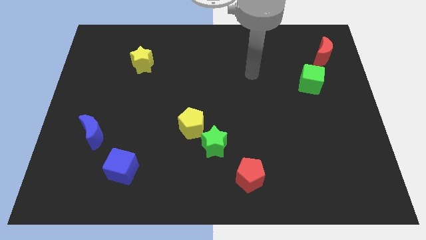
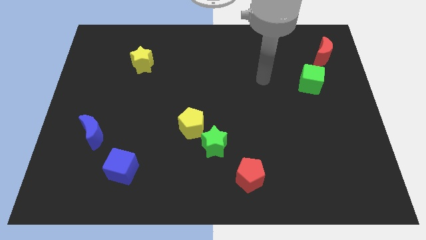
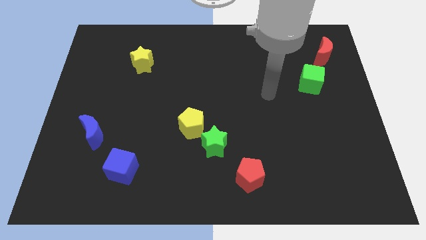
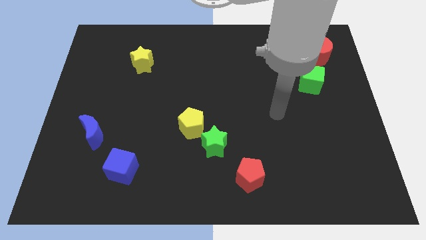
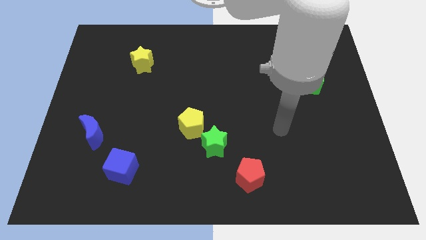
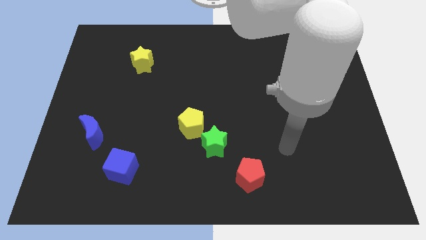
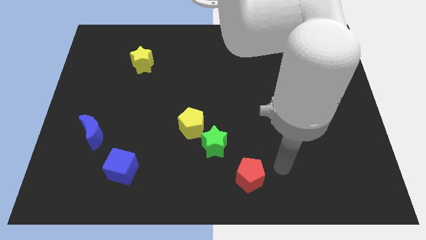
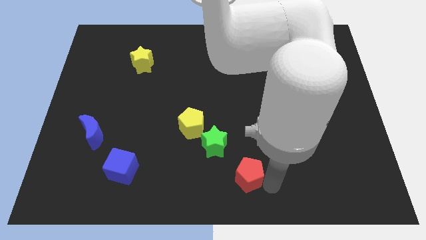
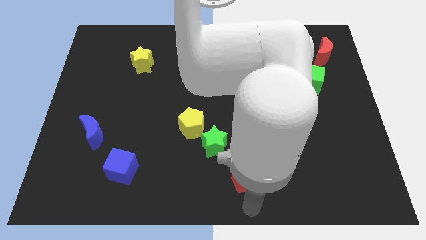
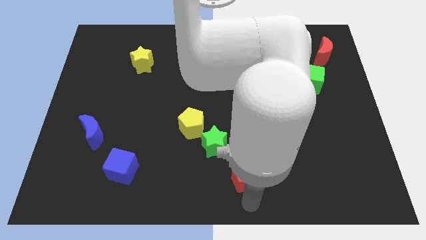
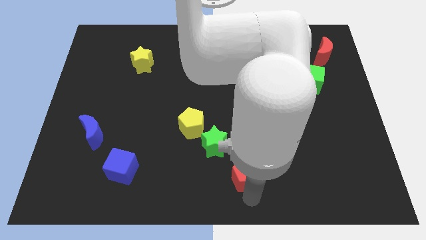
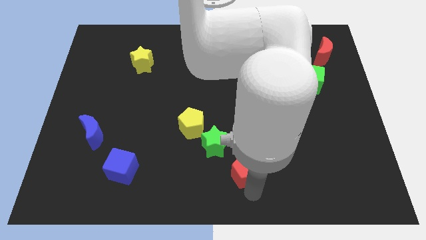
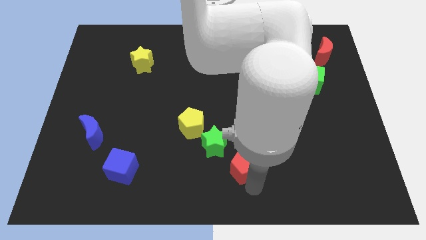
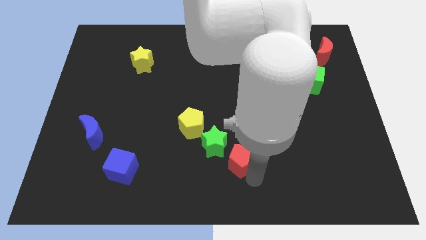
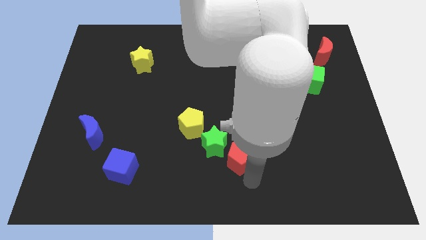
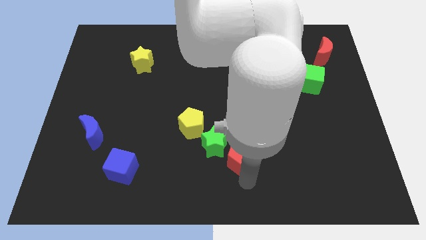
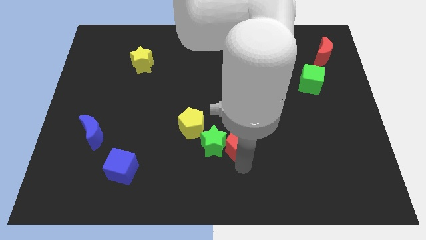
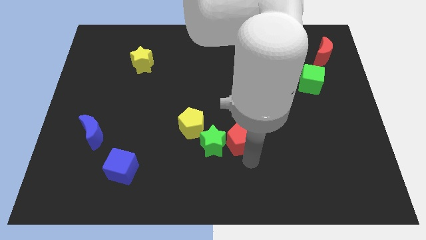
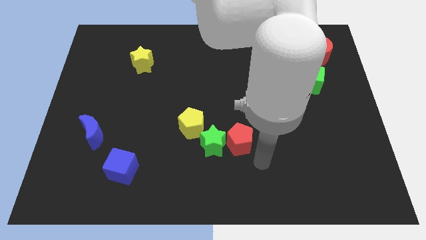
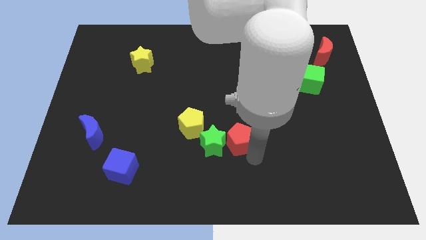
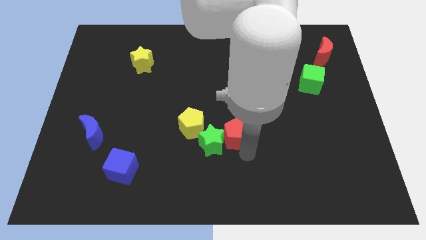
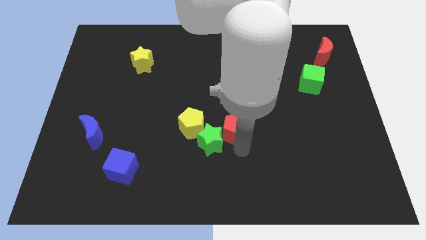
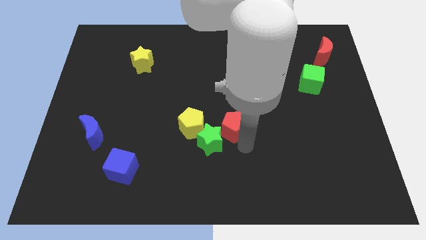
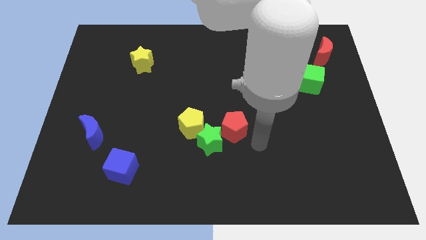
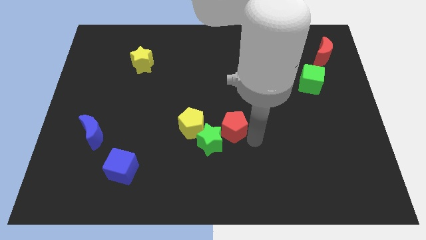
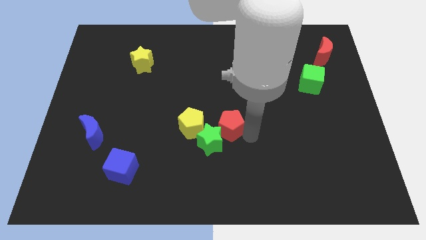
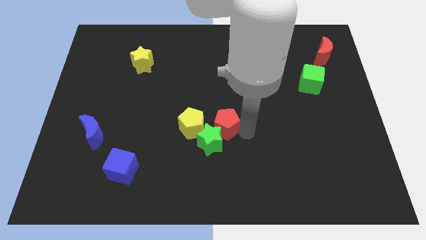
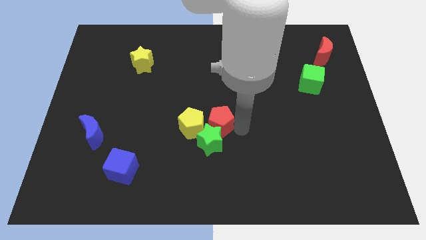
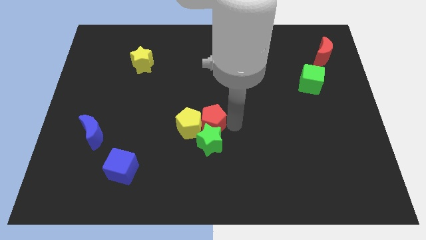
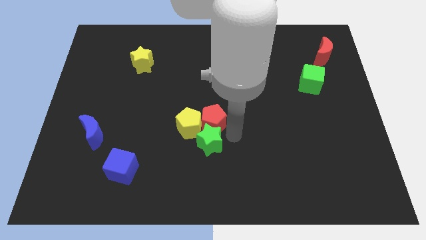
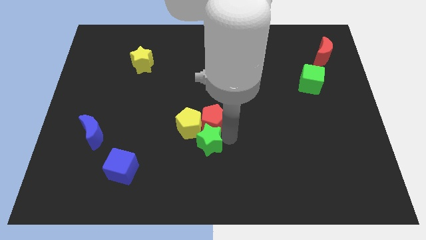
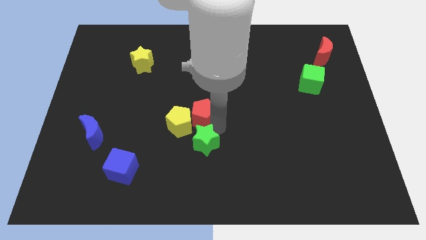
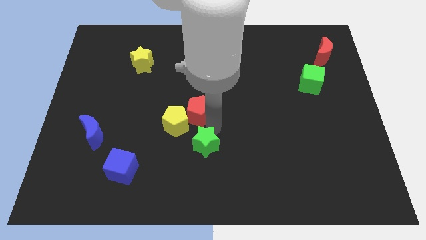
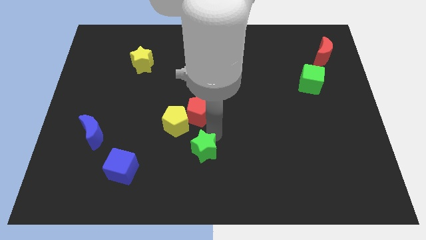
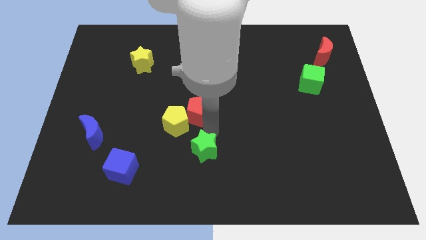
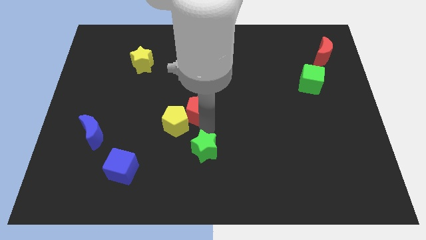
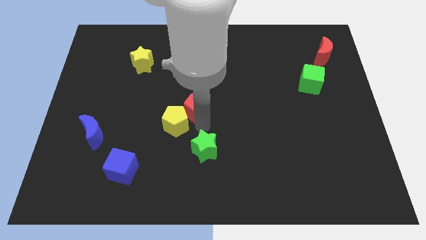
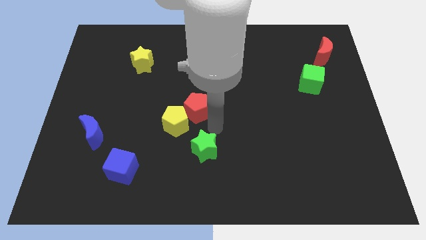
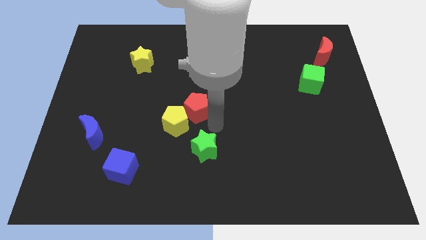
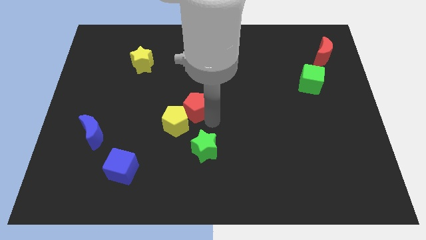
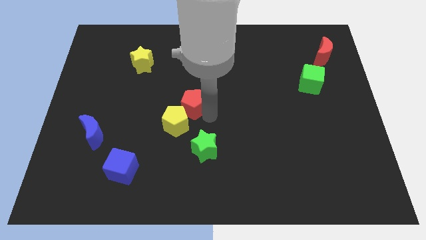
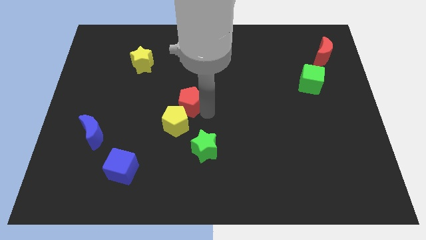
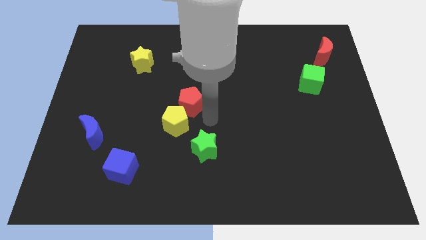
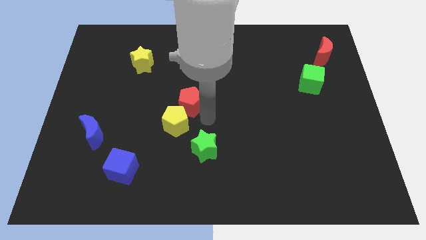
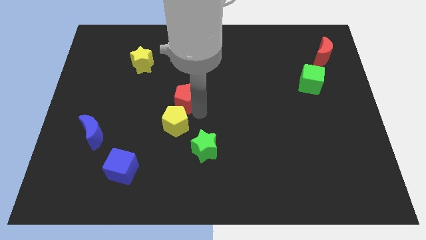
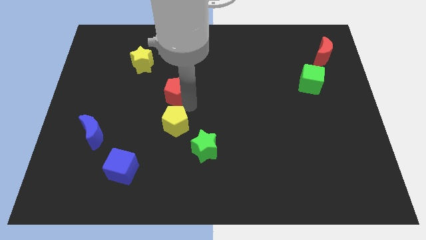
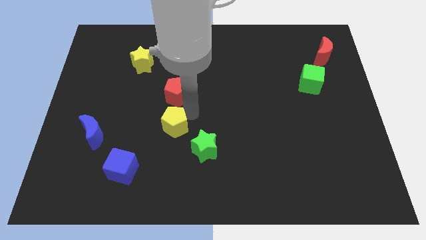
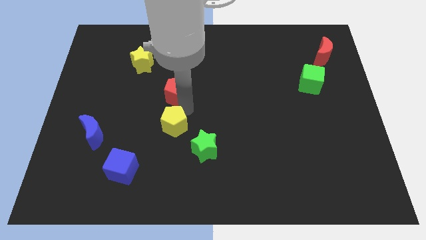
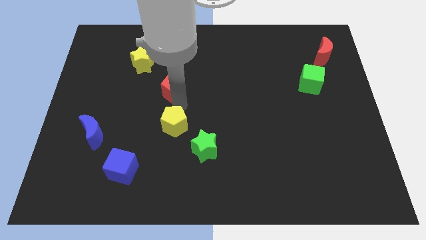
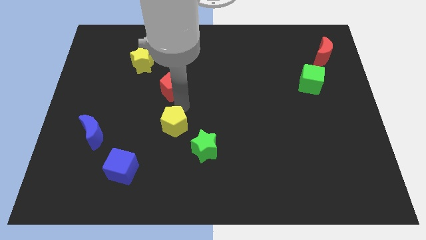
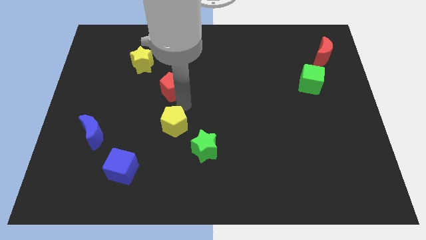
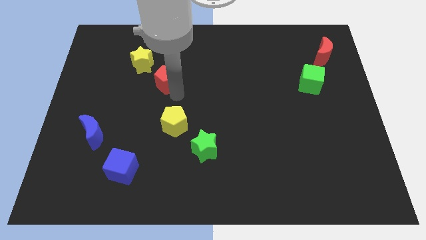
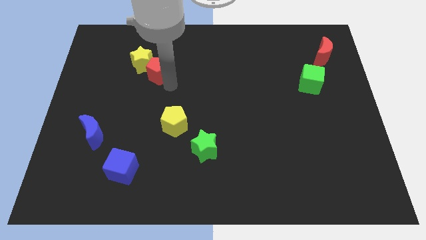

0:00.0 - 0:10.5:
push the red pentagon next to the yellow star

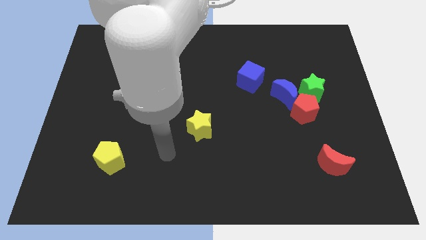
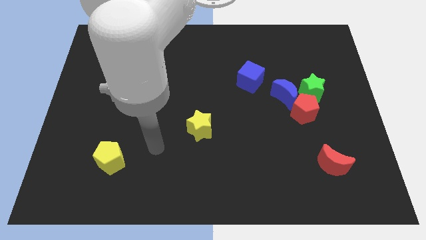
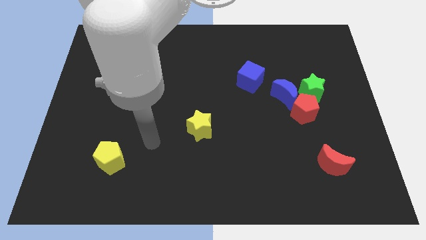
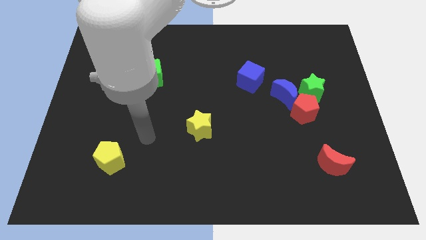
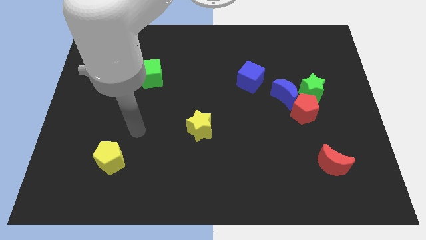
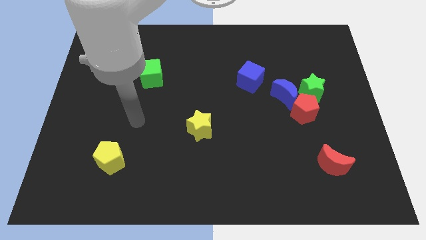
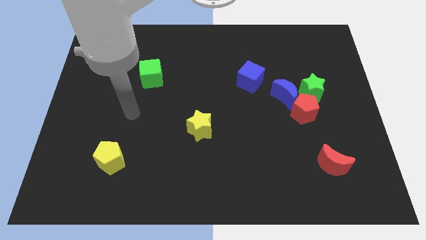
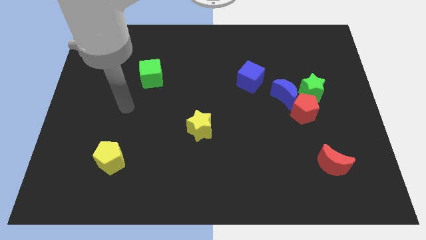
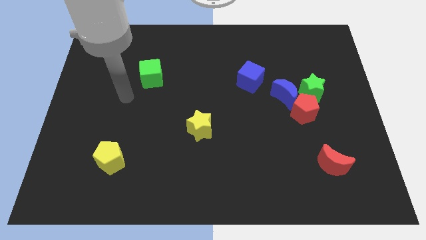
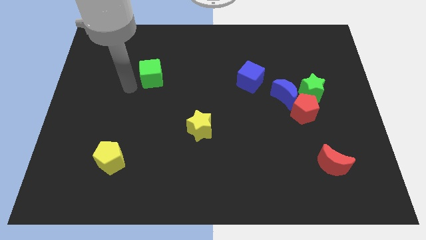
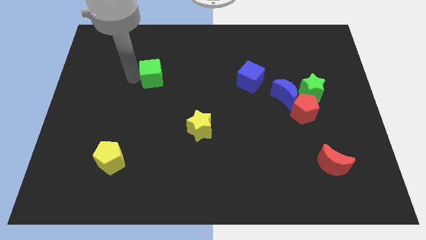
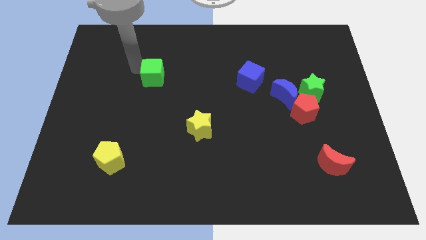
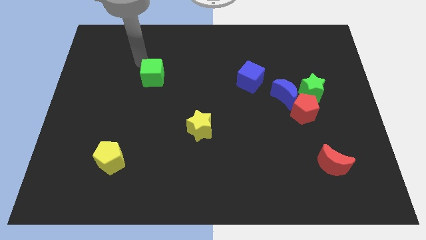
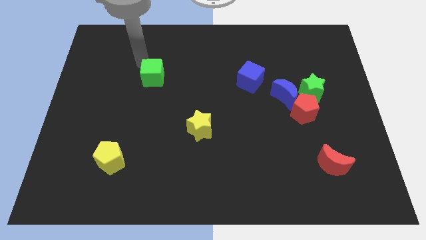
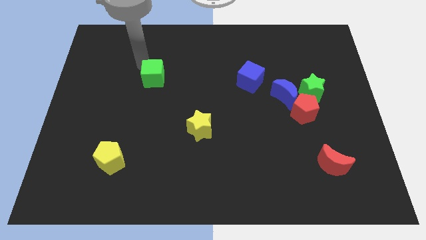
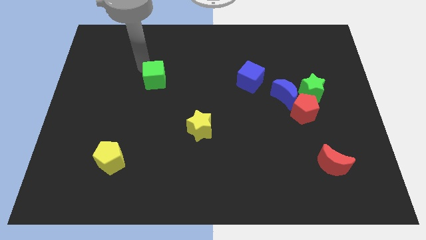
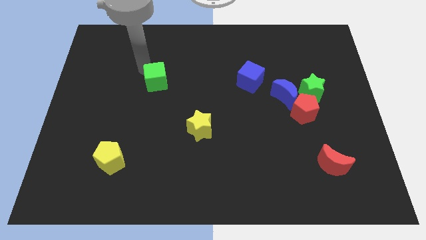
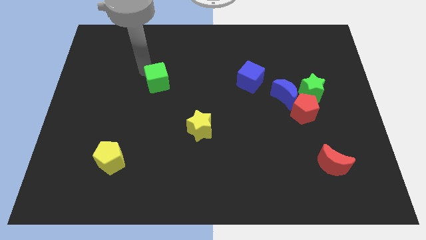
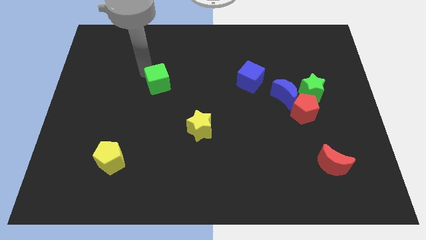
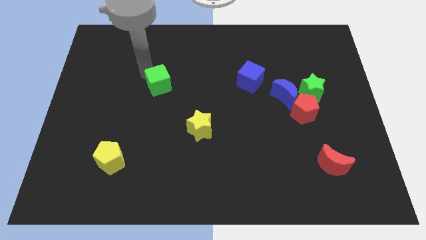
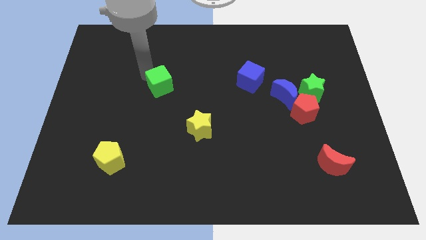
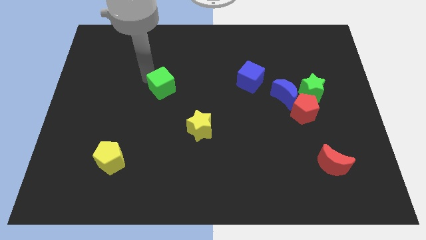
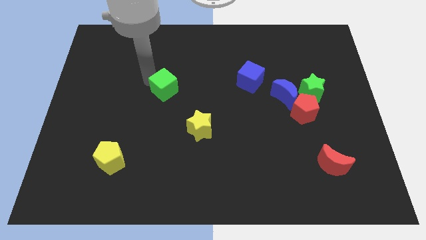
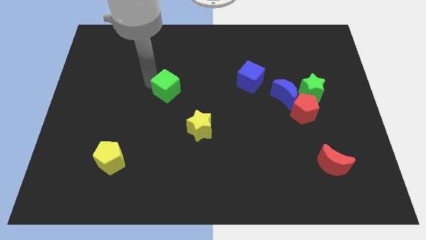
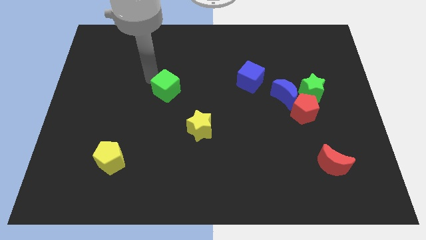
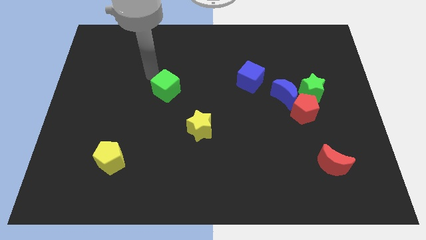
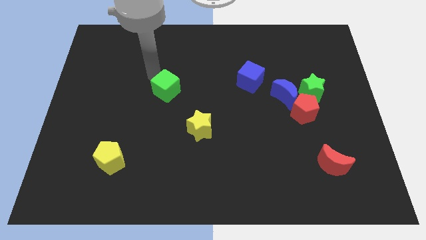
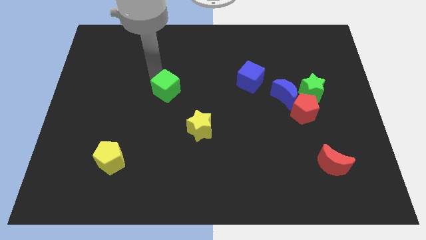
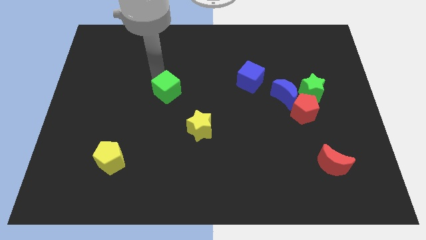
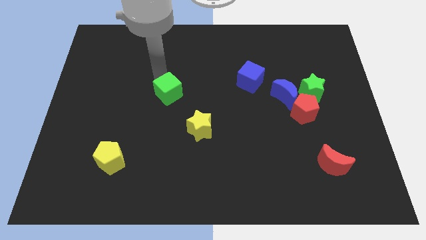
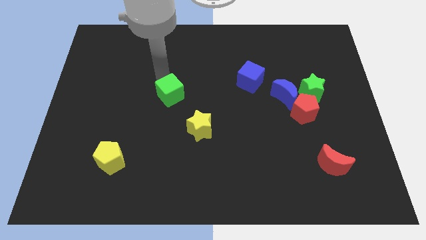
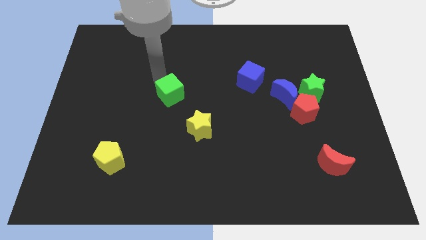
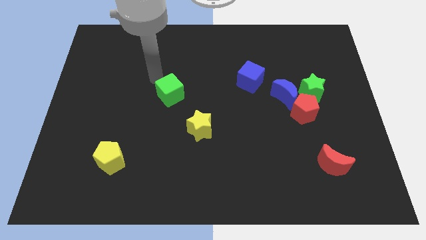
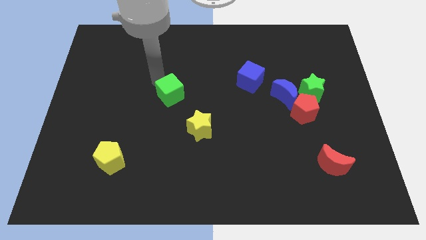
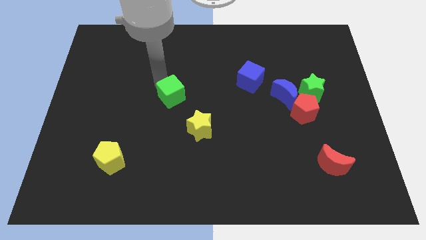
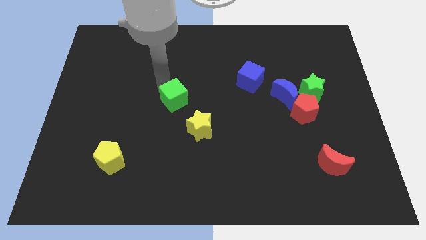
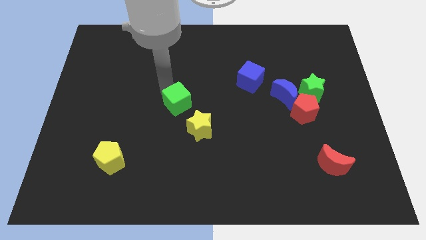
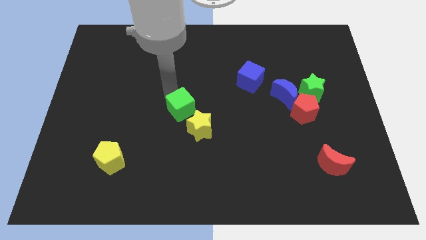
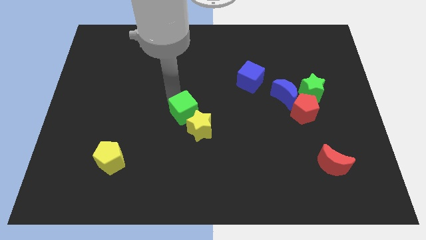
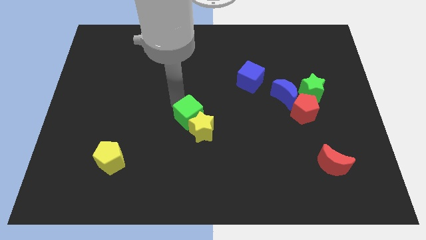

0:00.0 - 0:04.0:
put the green cube next to the yellow star
